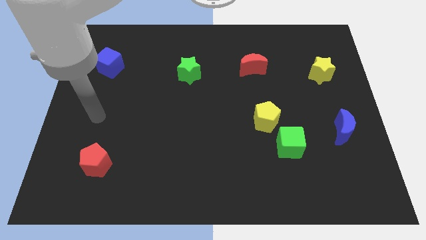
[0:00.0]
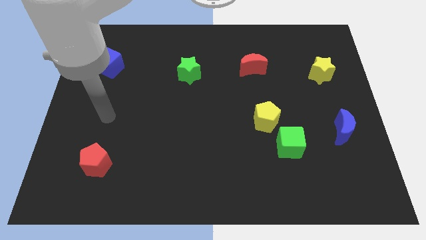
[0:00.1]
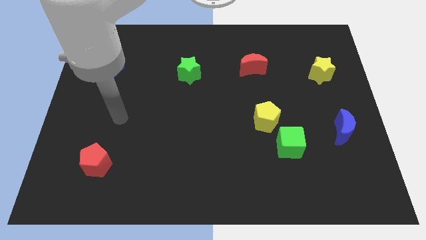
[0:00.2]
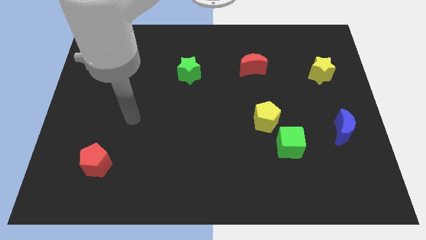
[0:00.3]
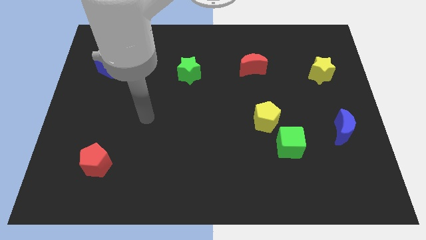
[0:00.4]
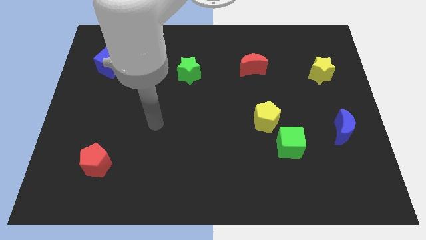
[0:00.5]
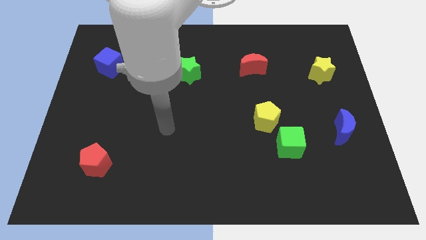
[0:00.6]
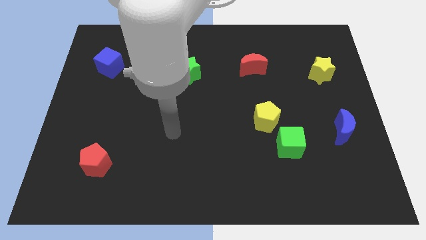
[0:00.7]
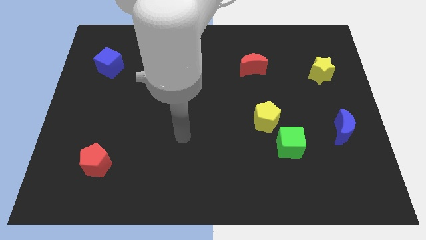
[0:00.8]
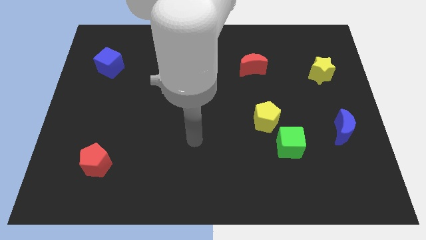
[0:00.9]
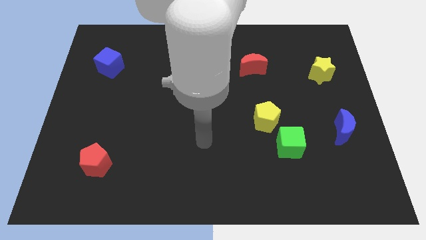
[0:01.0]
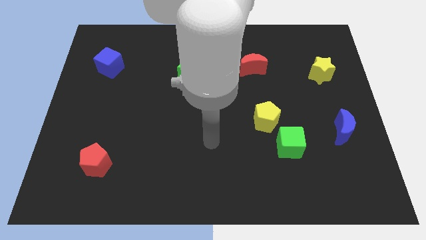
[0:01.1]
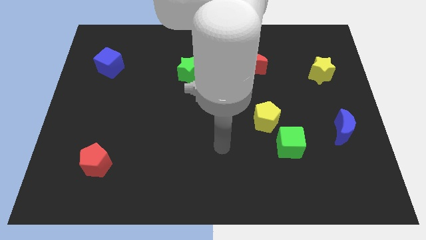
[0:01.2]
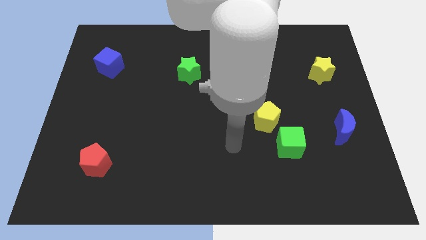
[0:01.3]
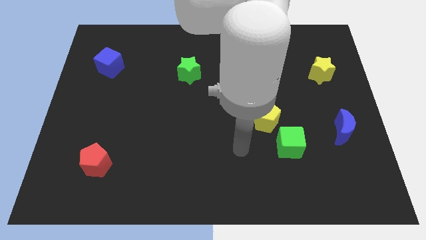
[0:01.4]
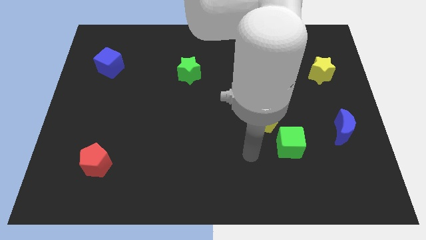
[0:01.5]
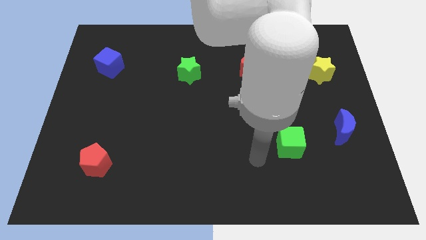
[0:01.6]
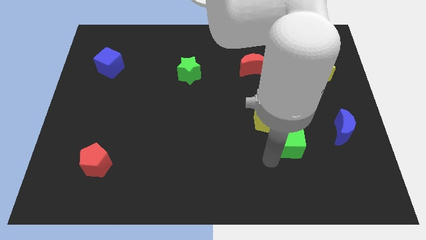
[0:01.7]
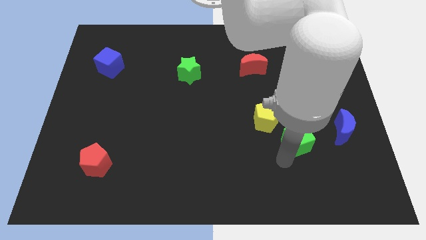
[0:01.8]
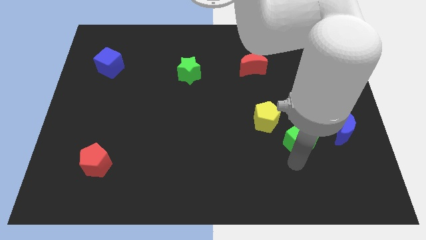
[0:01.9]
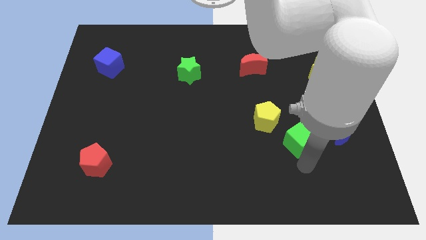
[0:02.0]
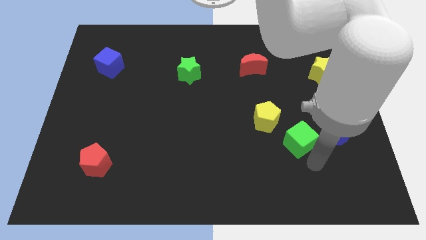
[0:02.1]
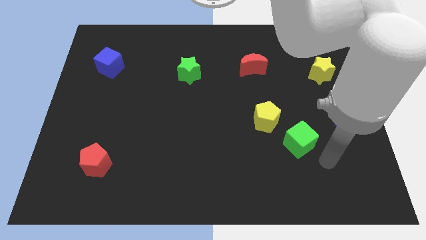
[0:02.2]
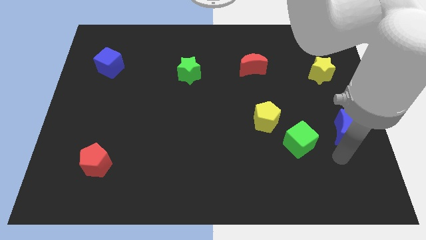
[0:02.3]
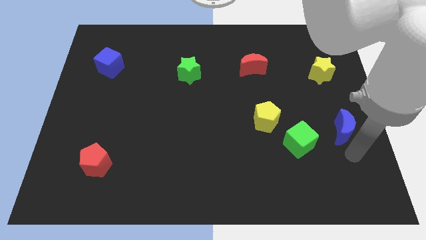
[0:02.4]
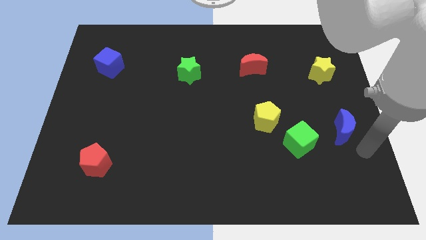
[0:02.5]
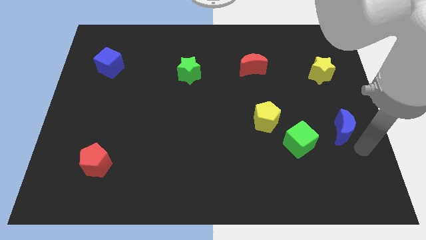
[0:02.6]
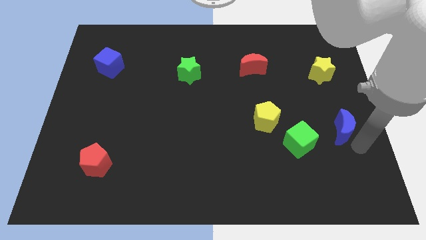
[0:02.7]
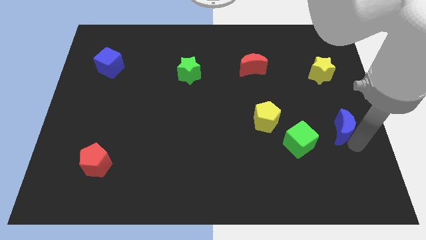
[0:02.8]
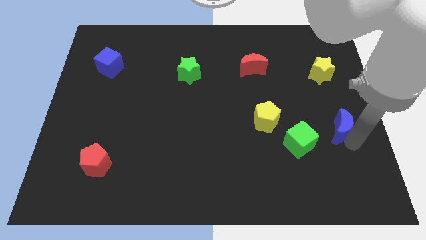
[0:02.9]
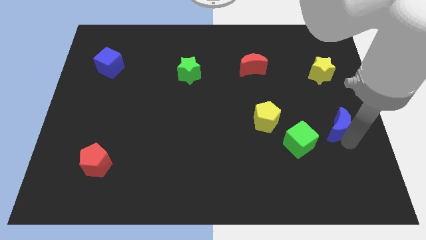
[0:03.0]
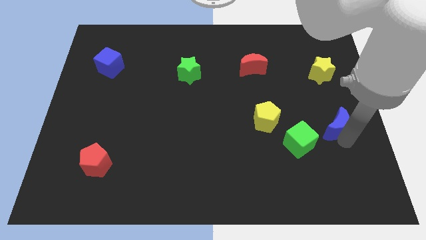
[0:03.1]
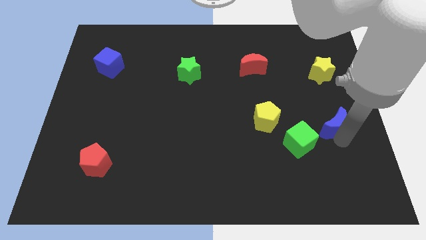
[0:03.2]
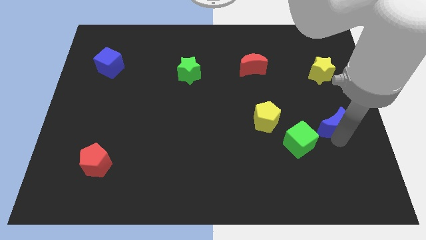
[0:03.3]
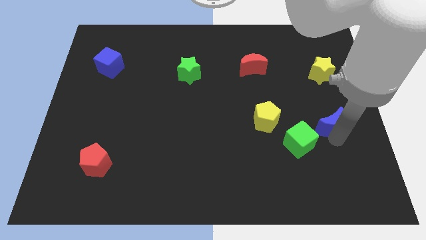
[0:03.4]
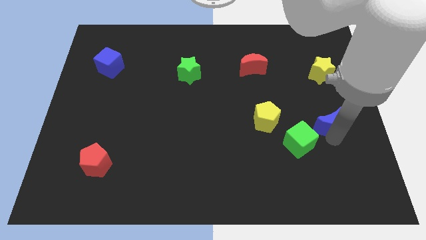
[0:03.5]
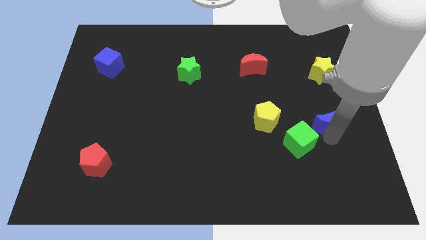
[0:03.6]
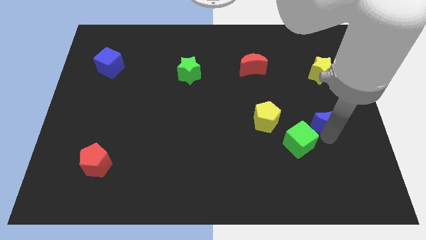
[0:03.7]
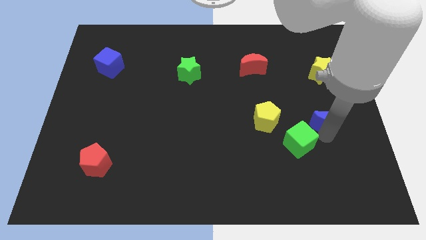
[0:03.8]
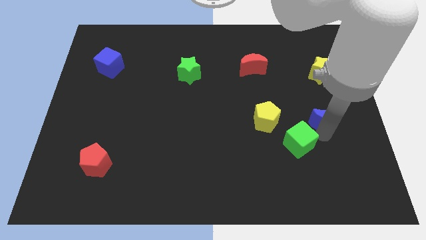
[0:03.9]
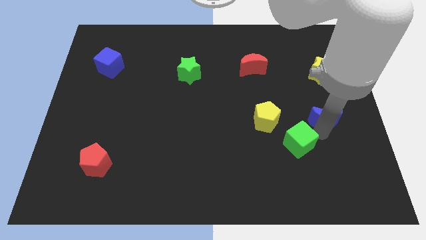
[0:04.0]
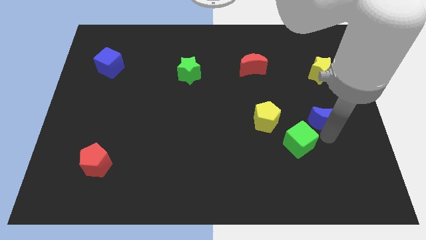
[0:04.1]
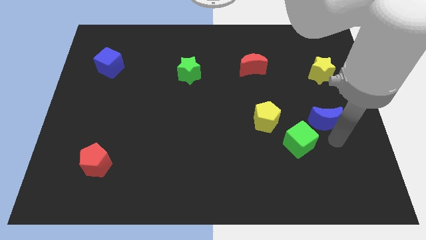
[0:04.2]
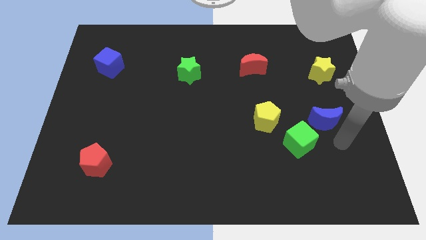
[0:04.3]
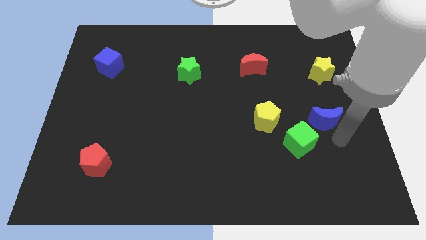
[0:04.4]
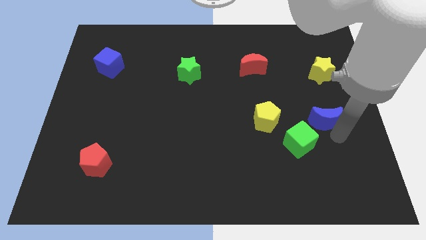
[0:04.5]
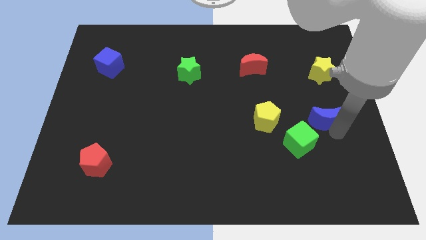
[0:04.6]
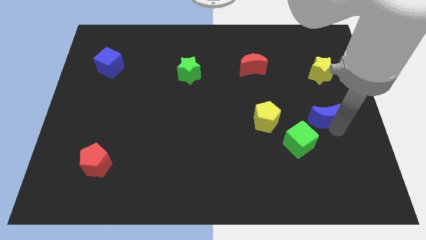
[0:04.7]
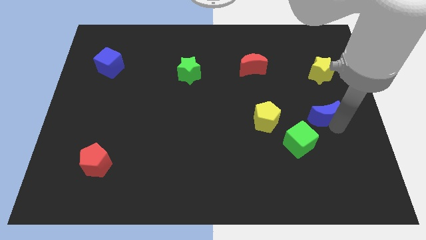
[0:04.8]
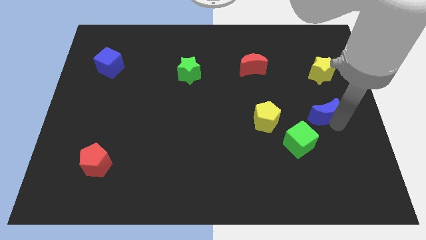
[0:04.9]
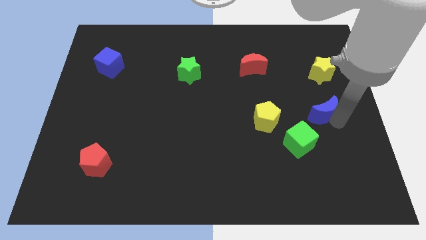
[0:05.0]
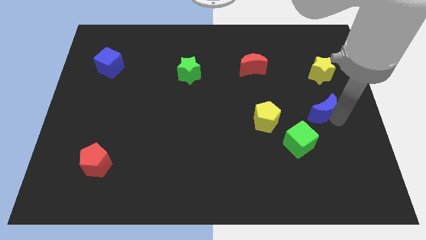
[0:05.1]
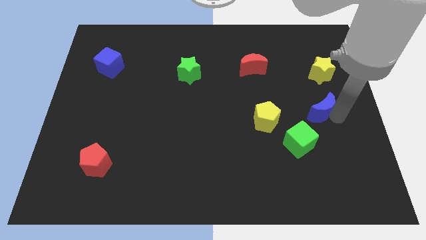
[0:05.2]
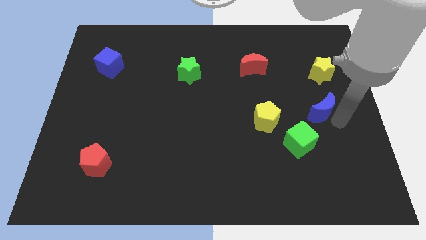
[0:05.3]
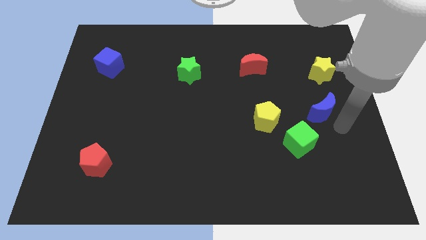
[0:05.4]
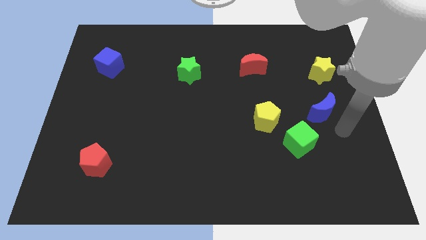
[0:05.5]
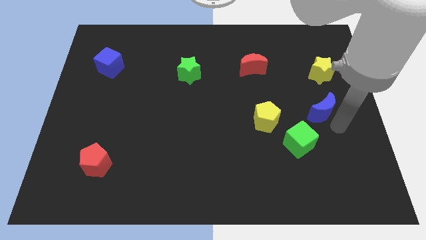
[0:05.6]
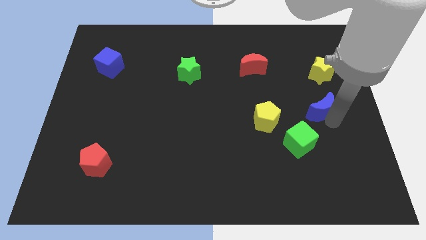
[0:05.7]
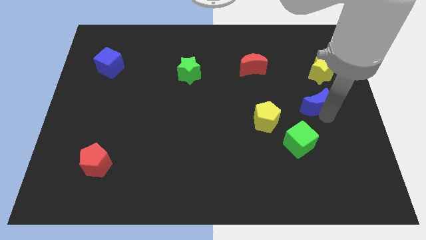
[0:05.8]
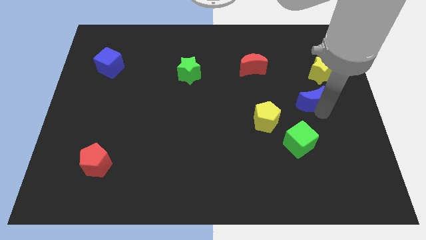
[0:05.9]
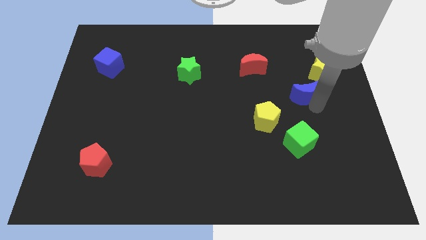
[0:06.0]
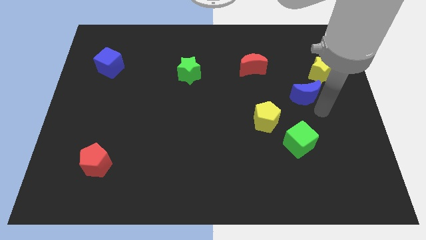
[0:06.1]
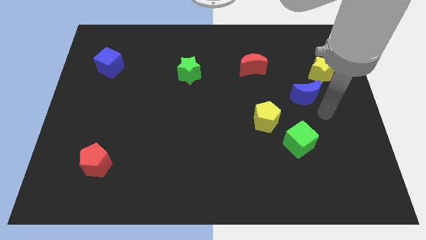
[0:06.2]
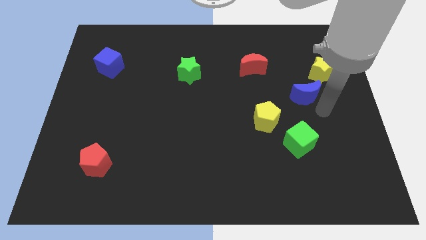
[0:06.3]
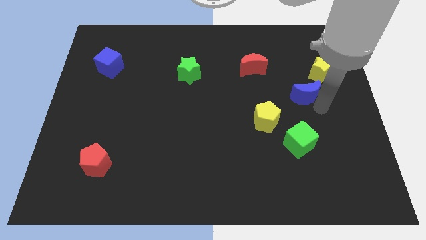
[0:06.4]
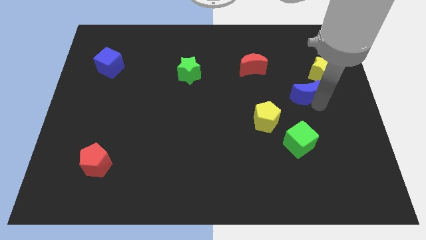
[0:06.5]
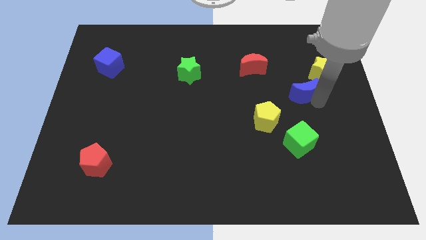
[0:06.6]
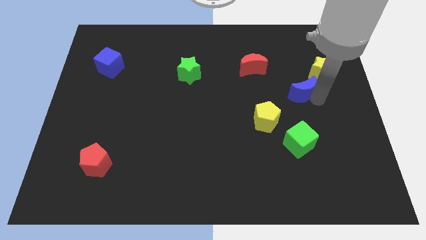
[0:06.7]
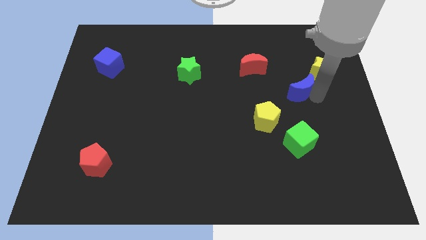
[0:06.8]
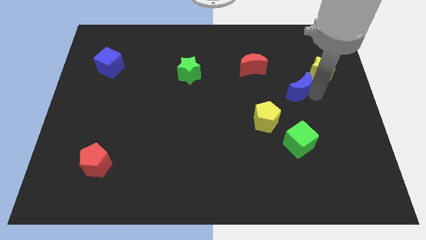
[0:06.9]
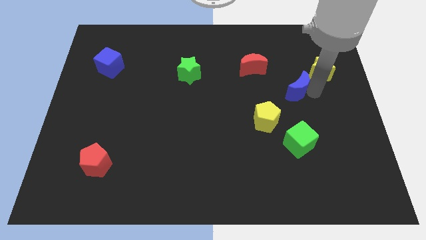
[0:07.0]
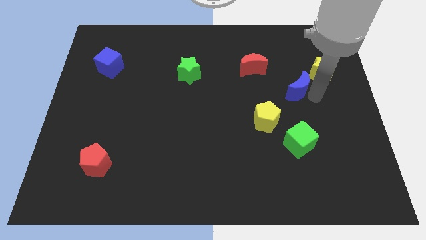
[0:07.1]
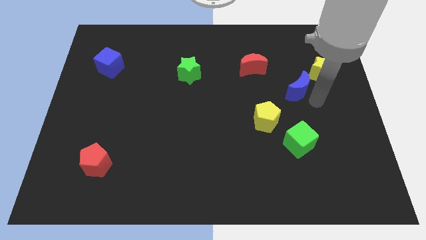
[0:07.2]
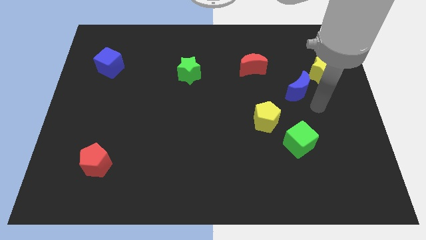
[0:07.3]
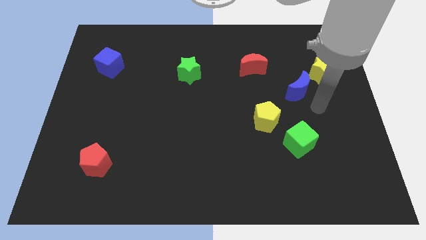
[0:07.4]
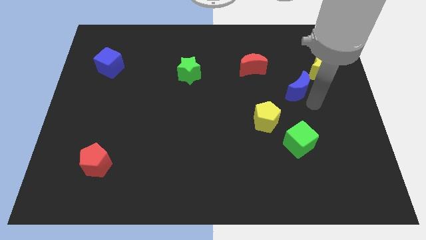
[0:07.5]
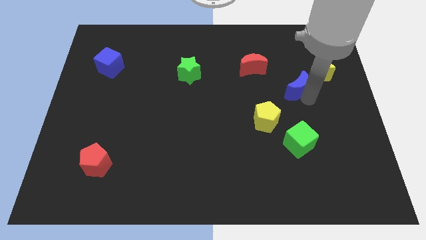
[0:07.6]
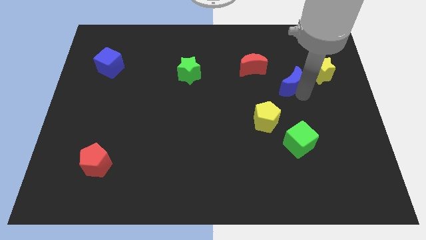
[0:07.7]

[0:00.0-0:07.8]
slide the blue moon to the left of the yellow star
